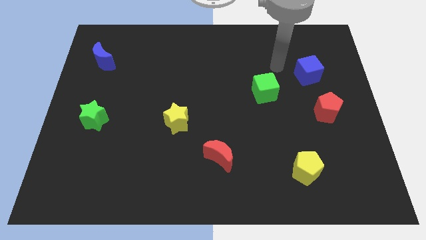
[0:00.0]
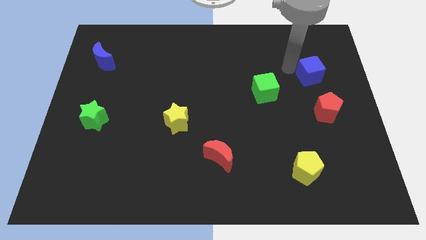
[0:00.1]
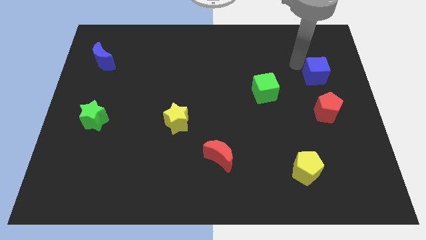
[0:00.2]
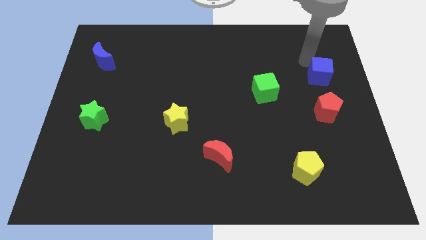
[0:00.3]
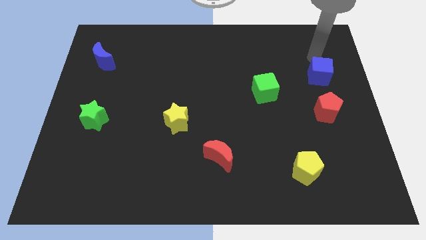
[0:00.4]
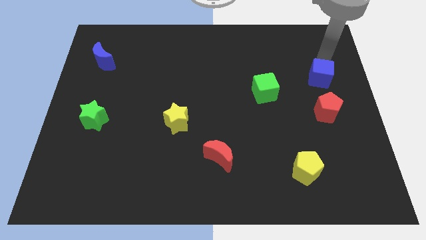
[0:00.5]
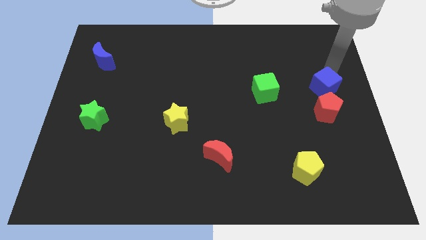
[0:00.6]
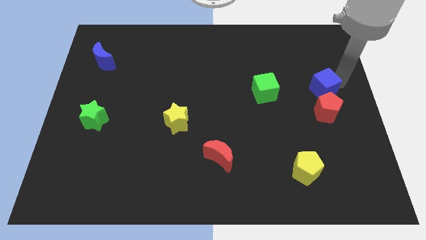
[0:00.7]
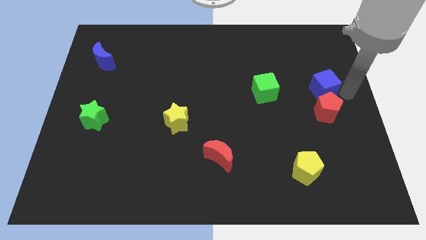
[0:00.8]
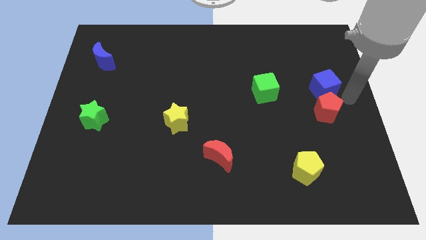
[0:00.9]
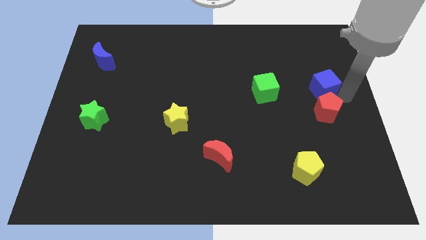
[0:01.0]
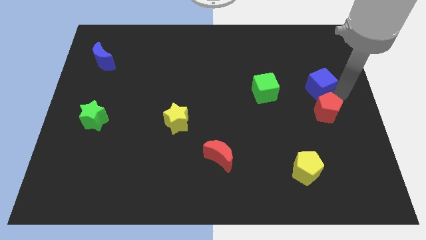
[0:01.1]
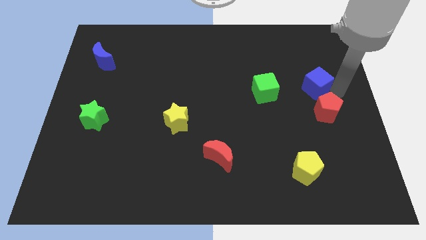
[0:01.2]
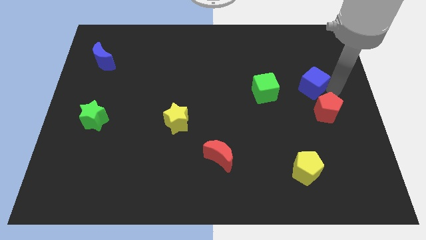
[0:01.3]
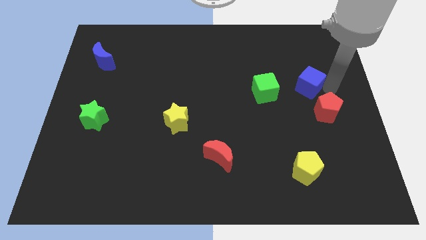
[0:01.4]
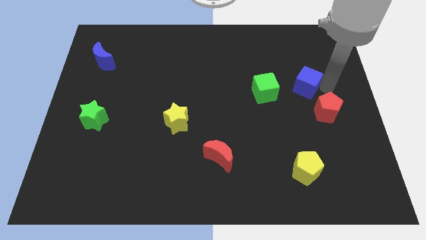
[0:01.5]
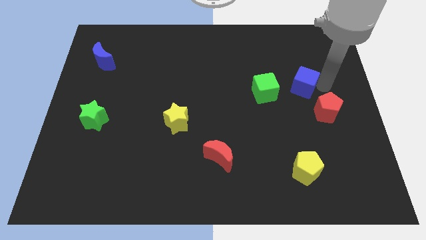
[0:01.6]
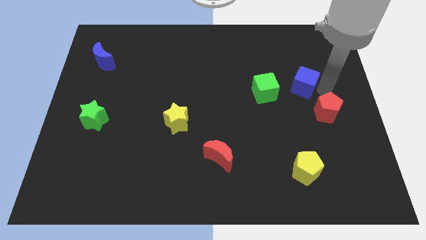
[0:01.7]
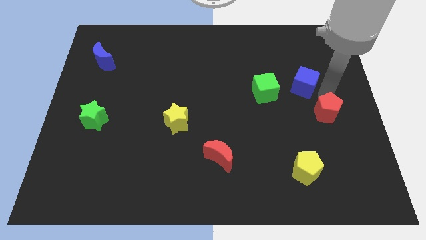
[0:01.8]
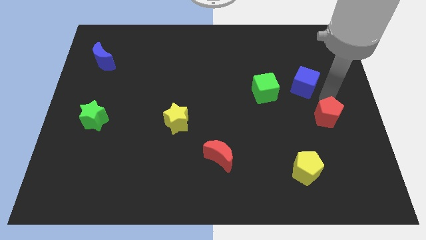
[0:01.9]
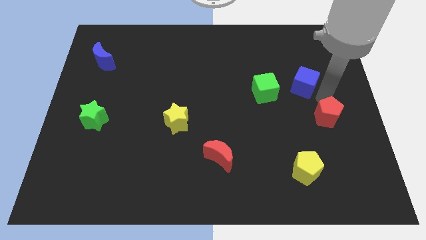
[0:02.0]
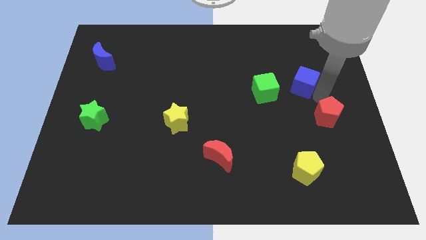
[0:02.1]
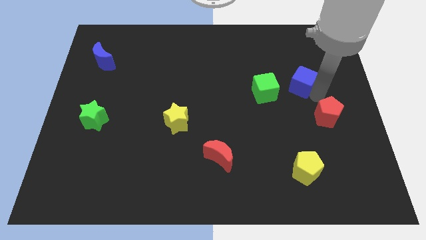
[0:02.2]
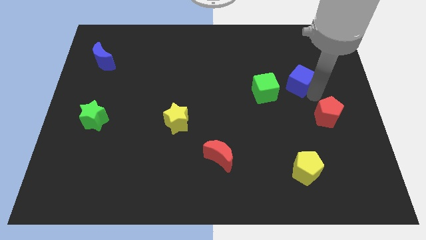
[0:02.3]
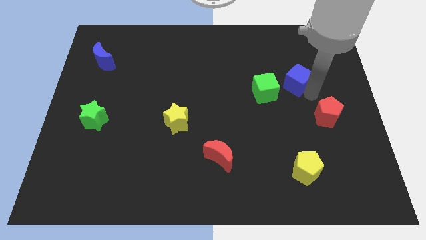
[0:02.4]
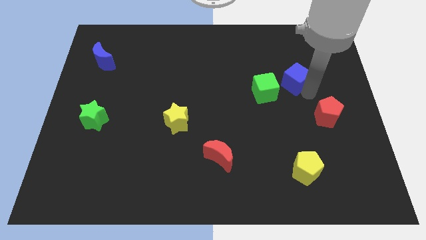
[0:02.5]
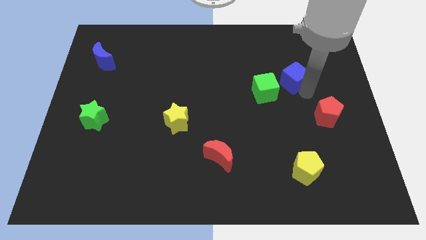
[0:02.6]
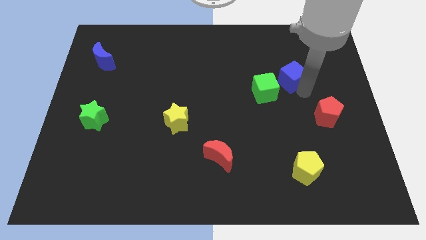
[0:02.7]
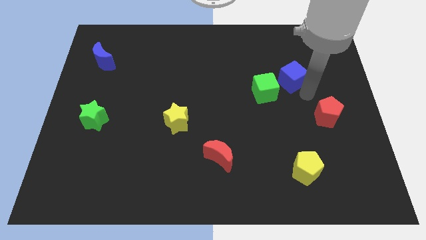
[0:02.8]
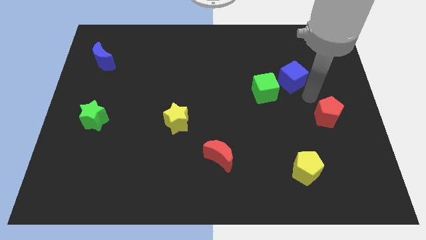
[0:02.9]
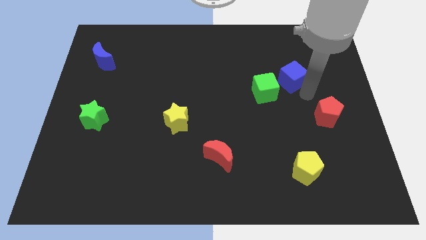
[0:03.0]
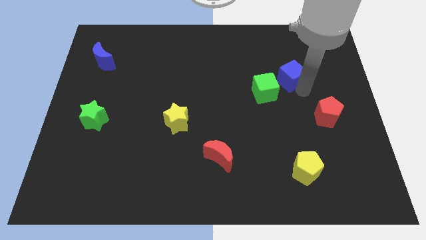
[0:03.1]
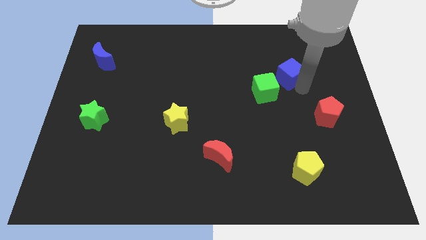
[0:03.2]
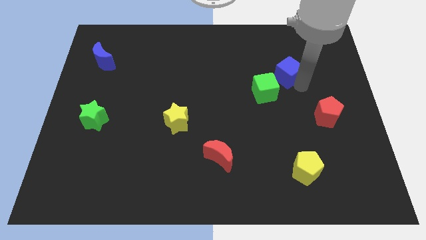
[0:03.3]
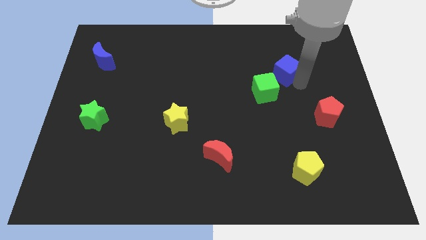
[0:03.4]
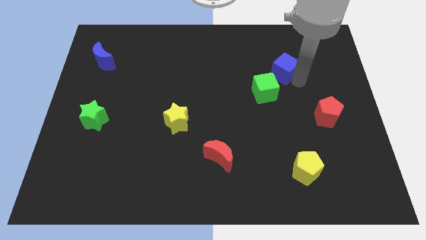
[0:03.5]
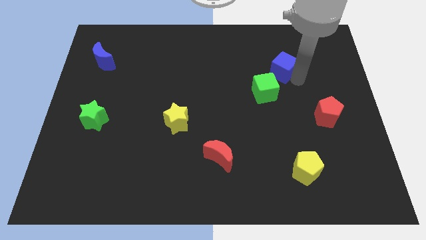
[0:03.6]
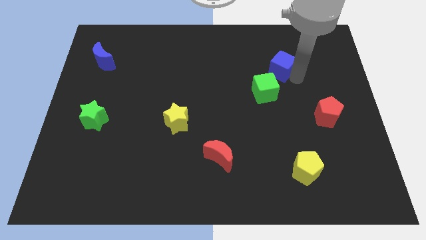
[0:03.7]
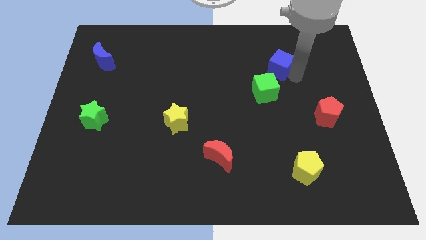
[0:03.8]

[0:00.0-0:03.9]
push the blue cube to the left somewhat

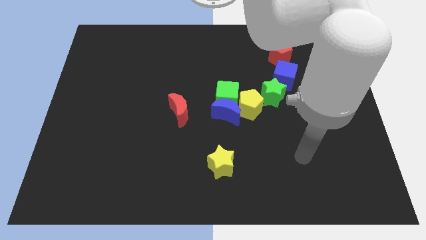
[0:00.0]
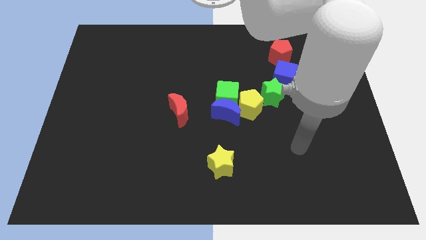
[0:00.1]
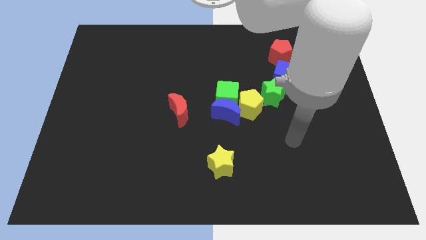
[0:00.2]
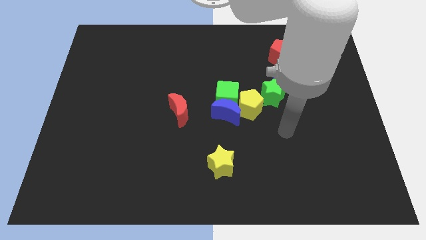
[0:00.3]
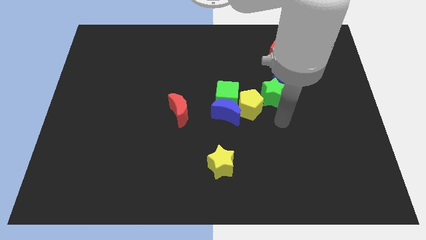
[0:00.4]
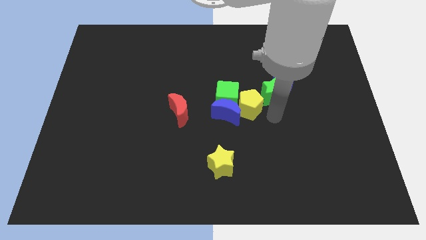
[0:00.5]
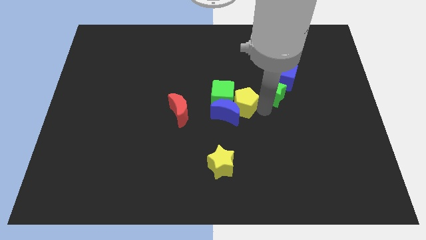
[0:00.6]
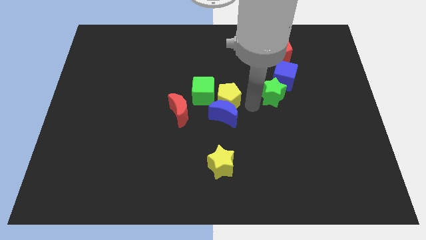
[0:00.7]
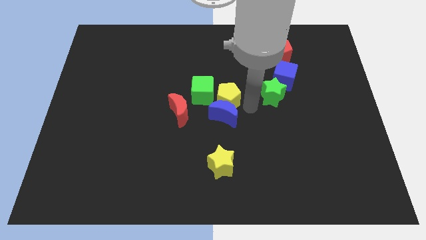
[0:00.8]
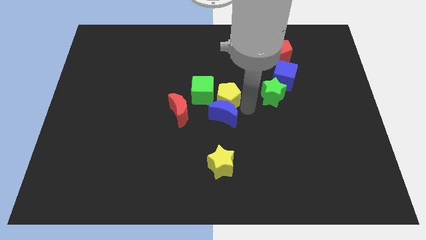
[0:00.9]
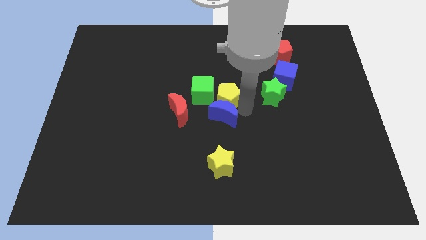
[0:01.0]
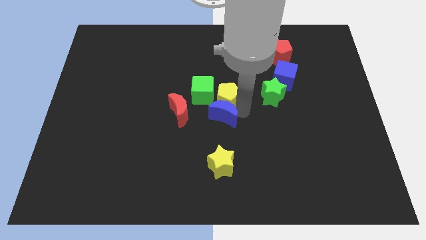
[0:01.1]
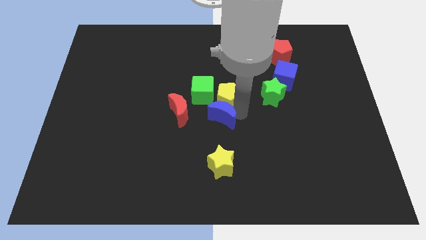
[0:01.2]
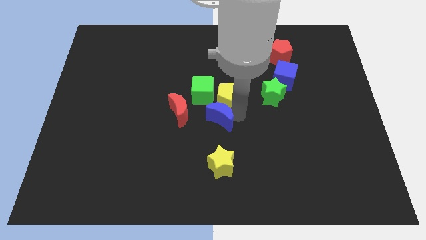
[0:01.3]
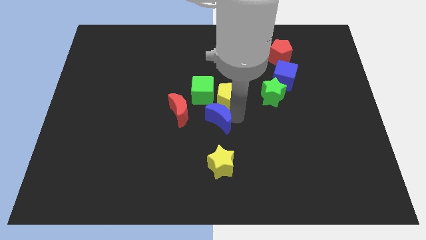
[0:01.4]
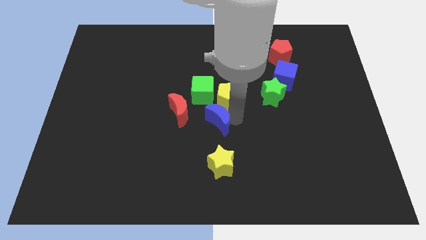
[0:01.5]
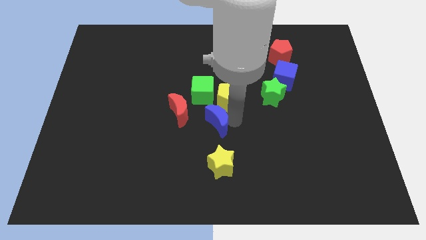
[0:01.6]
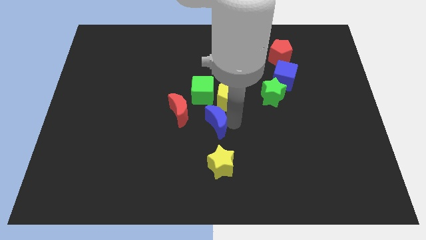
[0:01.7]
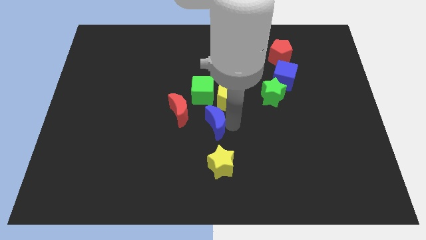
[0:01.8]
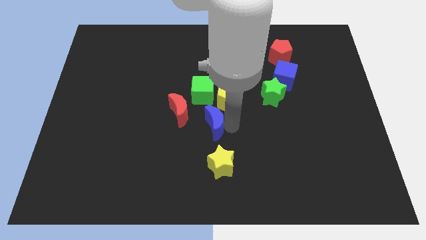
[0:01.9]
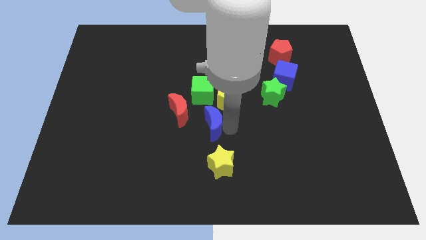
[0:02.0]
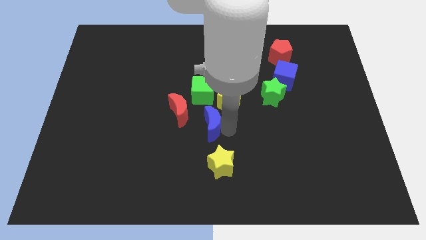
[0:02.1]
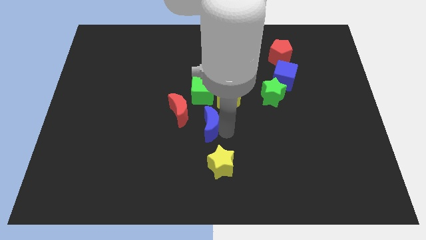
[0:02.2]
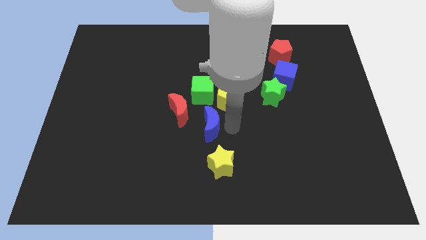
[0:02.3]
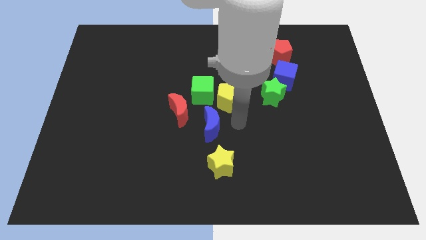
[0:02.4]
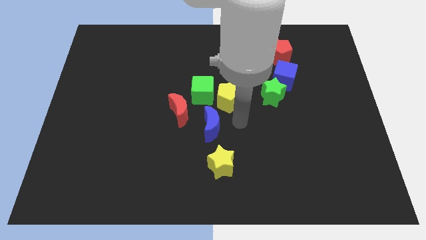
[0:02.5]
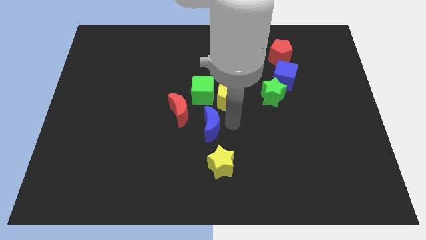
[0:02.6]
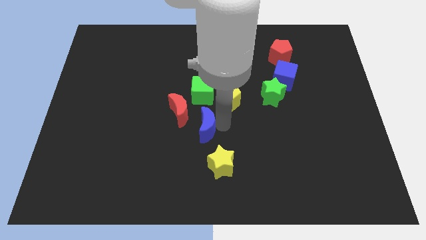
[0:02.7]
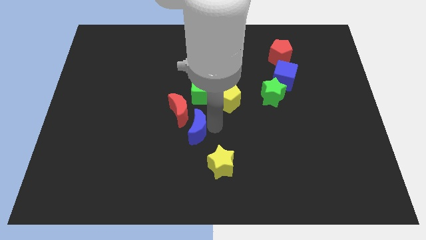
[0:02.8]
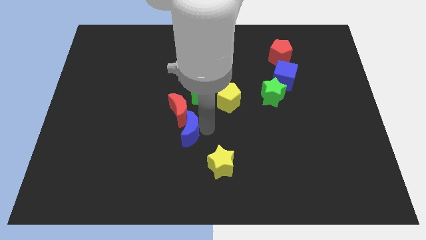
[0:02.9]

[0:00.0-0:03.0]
slightly push the blue moon left

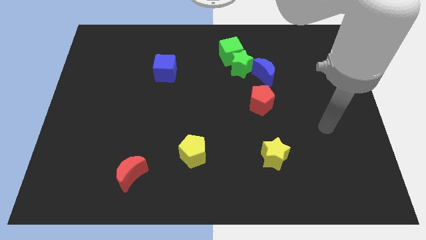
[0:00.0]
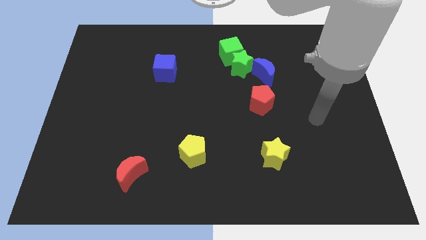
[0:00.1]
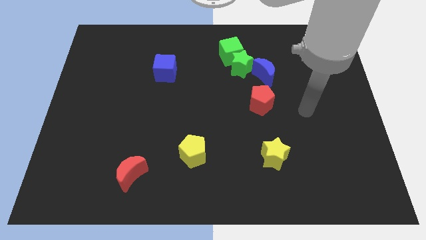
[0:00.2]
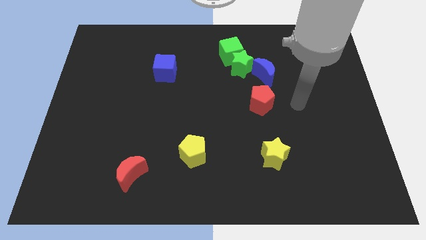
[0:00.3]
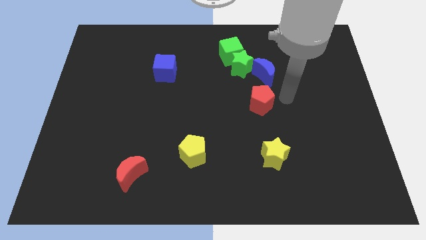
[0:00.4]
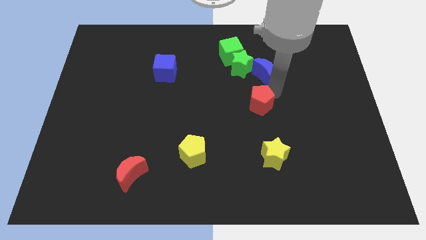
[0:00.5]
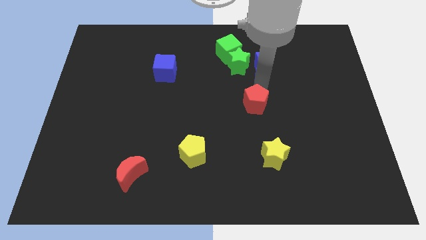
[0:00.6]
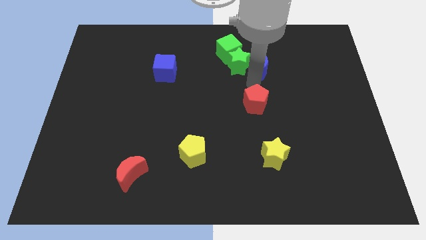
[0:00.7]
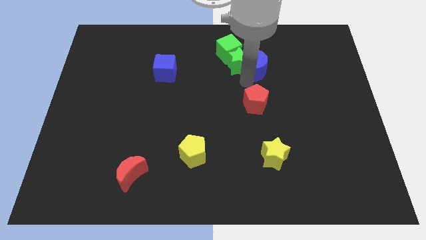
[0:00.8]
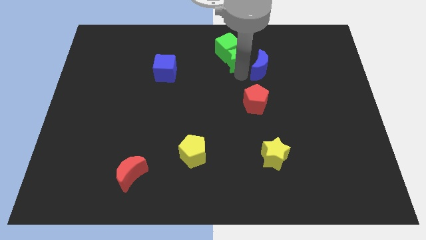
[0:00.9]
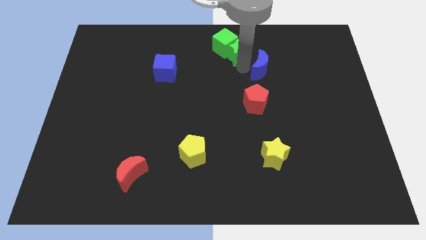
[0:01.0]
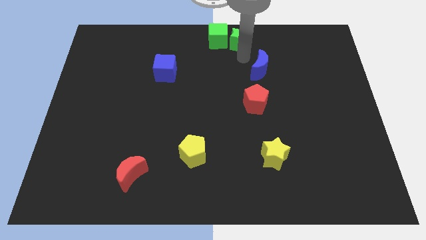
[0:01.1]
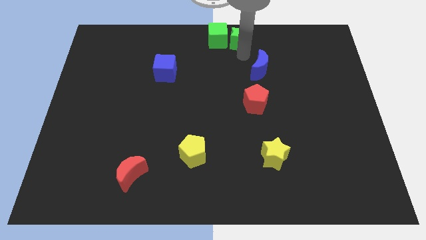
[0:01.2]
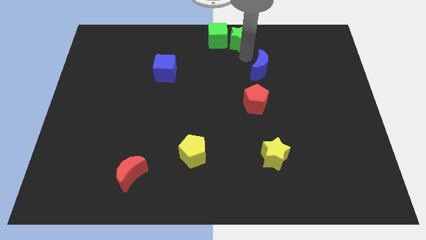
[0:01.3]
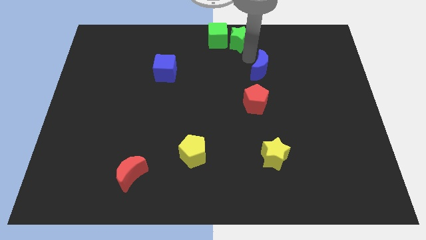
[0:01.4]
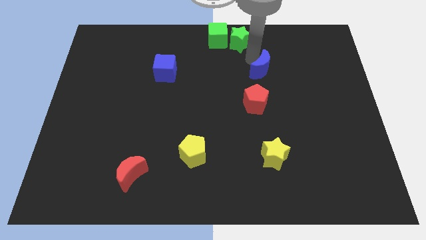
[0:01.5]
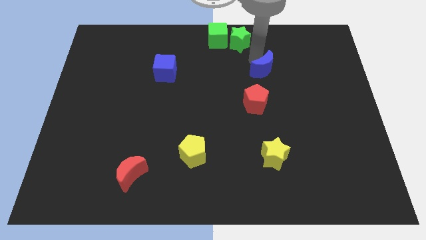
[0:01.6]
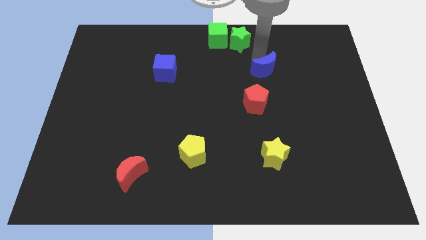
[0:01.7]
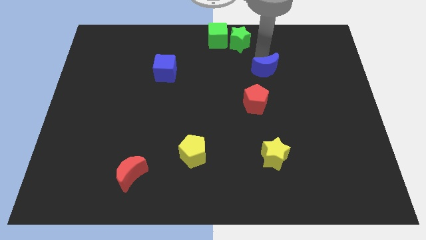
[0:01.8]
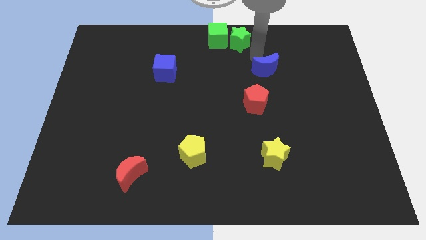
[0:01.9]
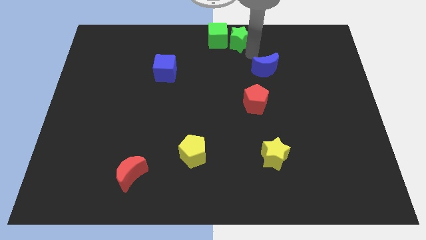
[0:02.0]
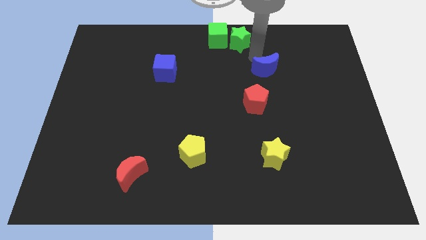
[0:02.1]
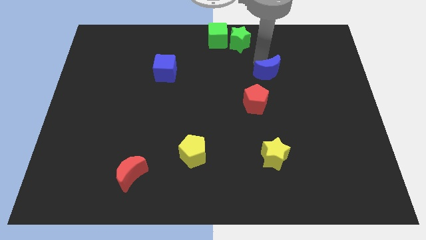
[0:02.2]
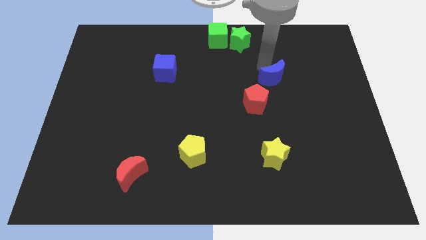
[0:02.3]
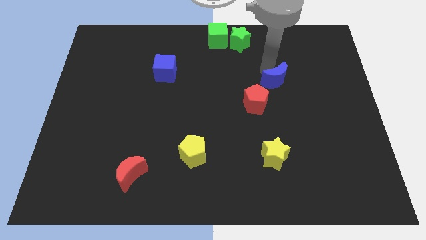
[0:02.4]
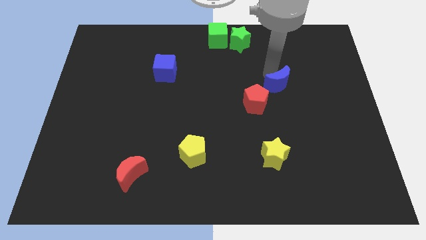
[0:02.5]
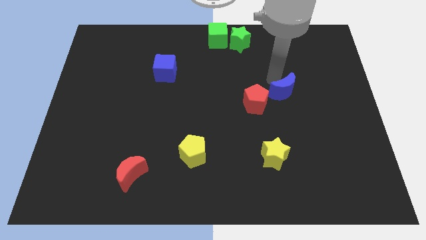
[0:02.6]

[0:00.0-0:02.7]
slightly push the blue moon diagonally down and right
